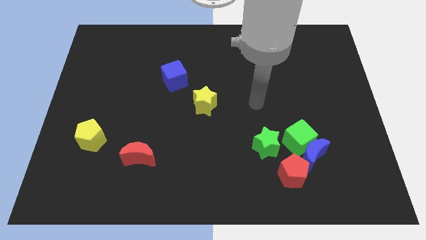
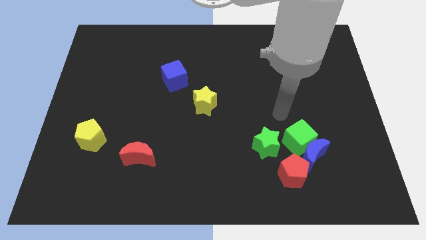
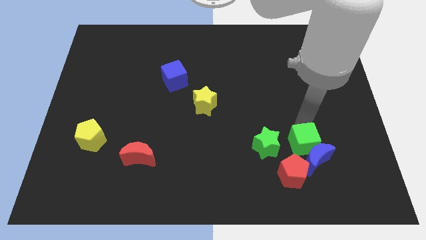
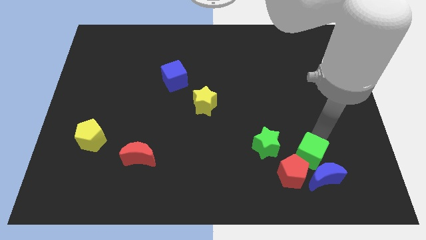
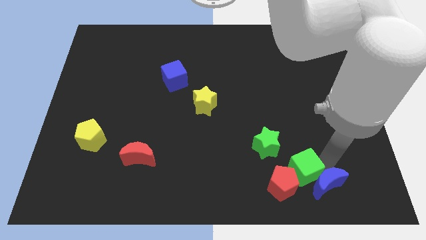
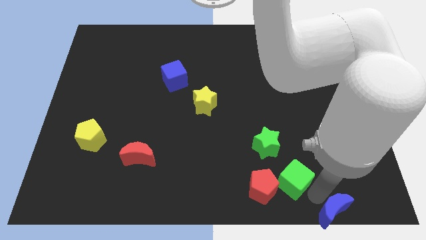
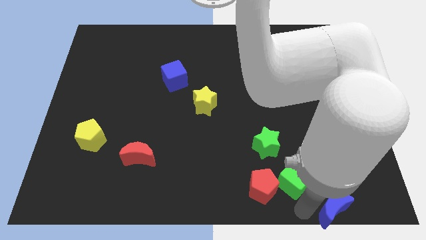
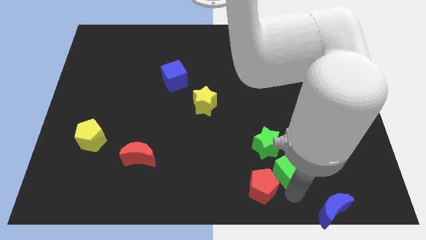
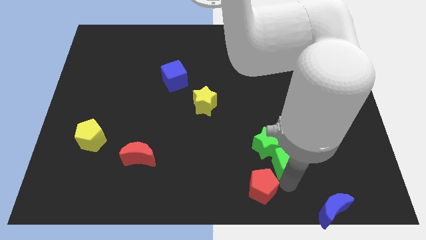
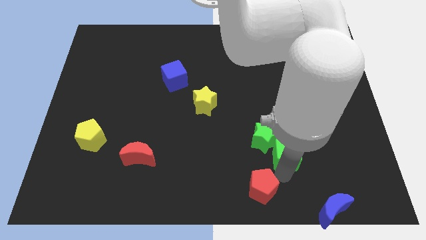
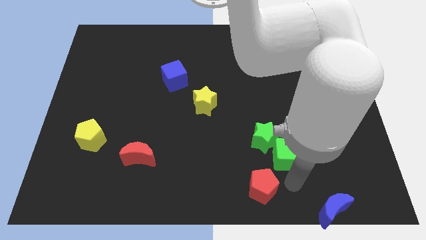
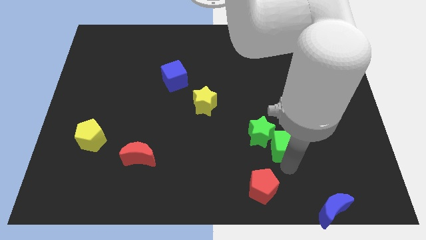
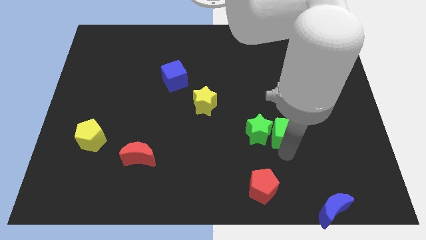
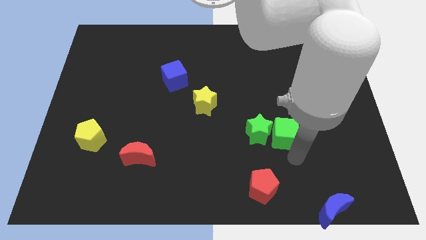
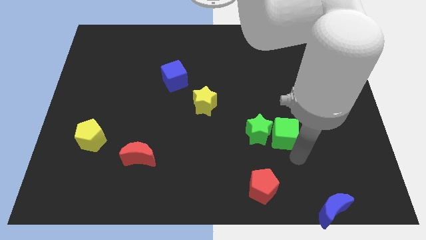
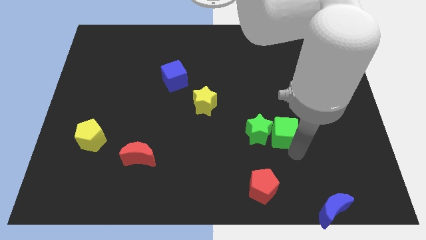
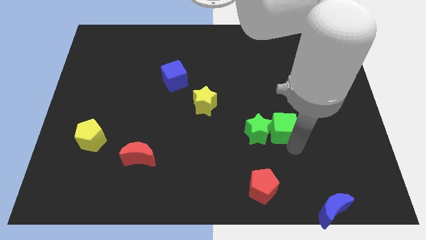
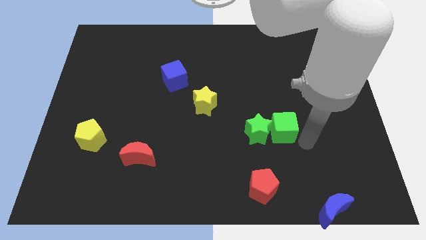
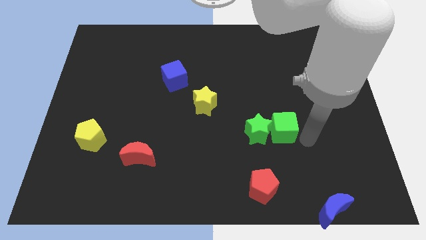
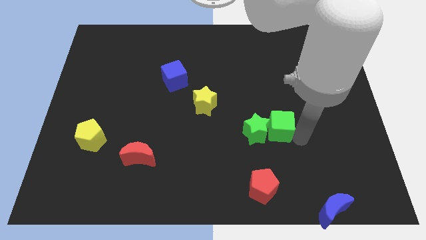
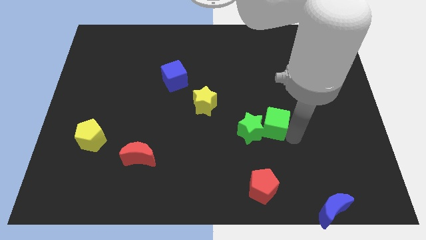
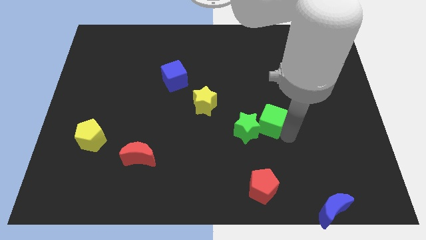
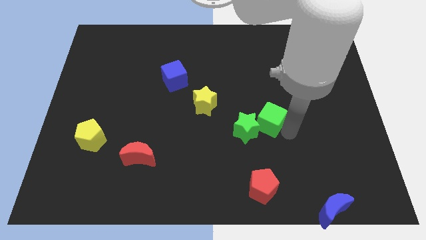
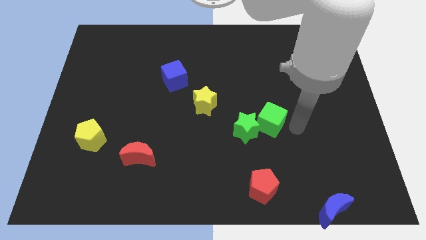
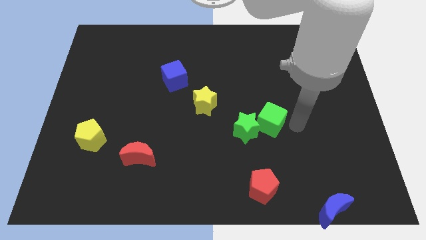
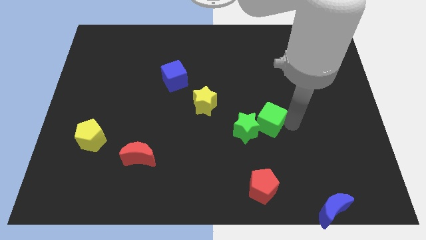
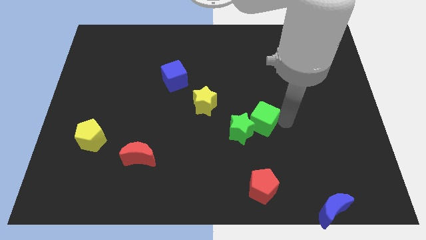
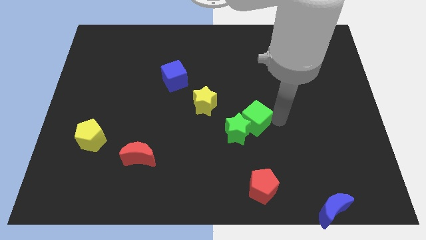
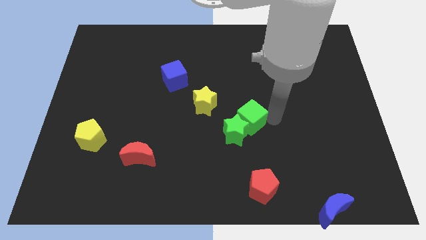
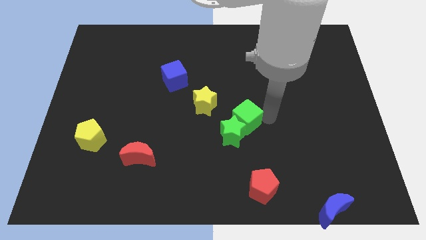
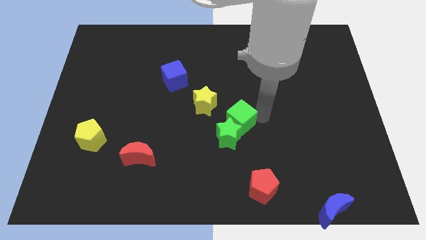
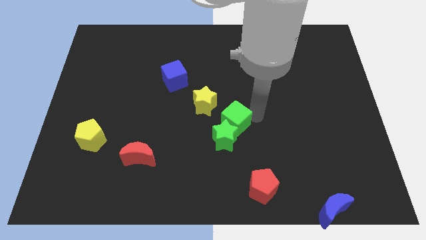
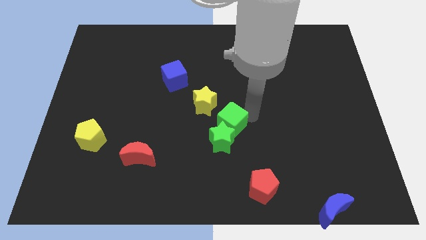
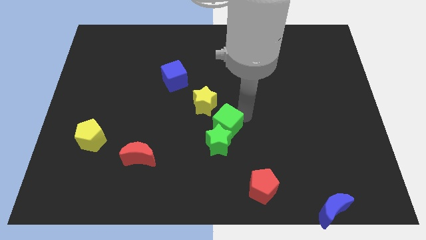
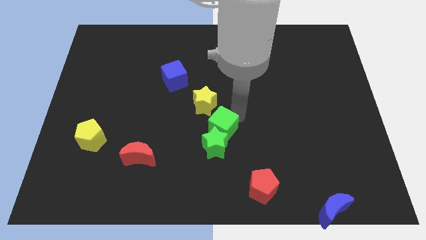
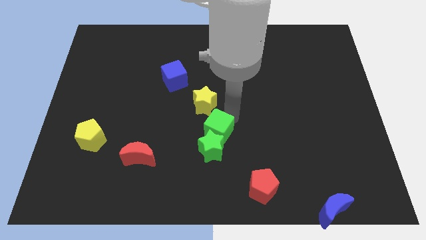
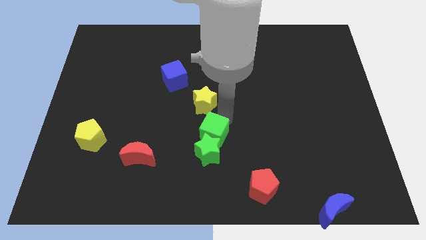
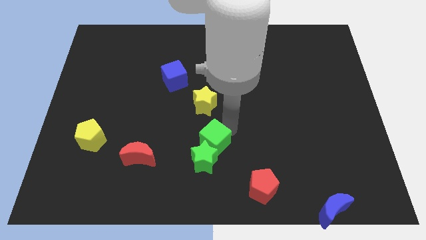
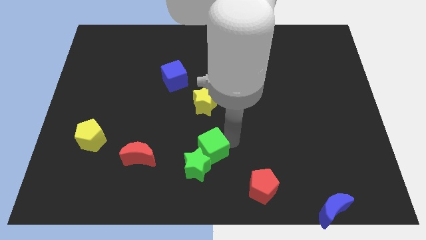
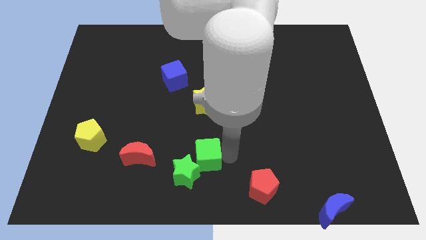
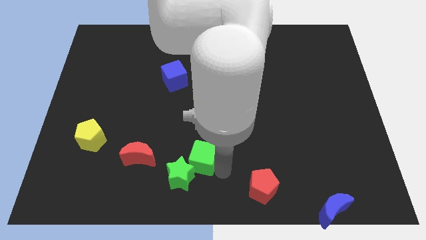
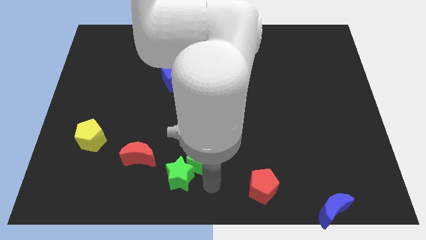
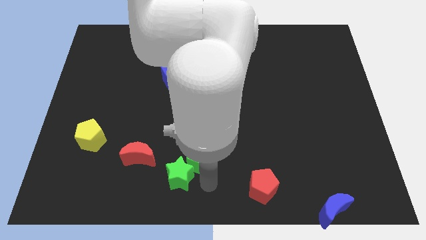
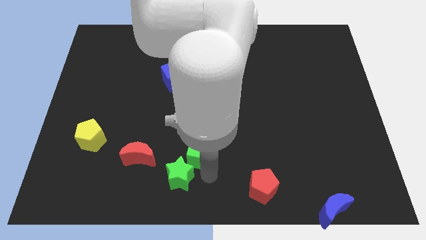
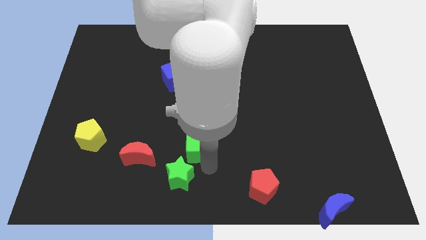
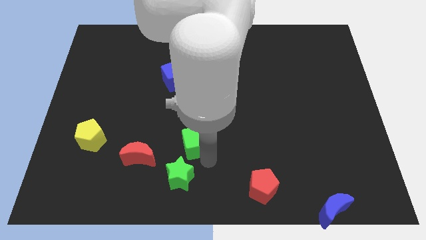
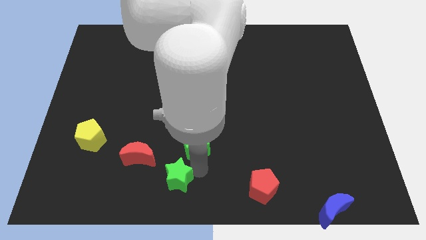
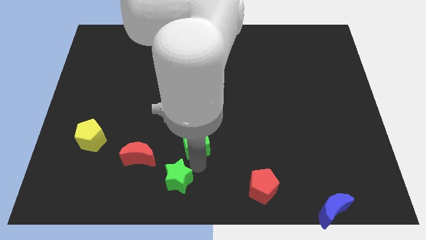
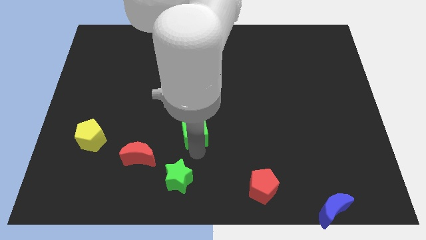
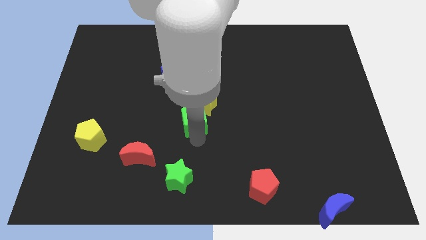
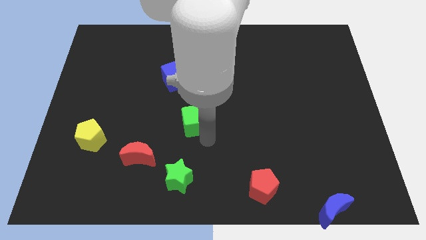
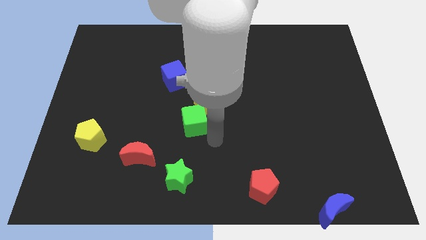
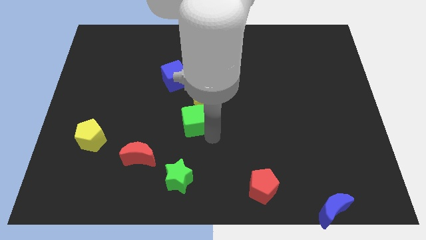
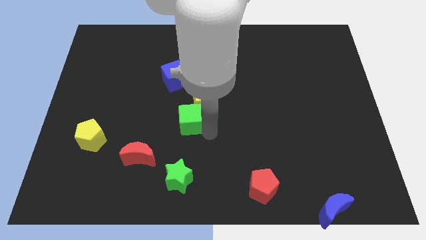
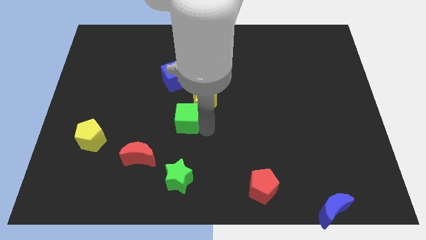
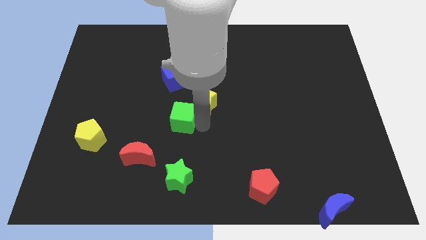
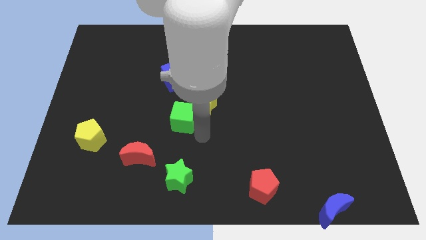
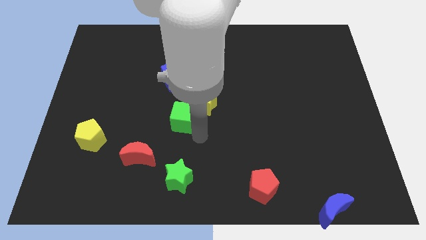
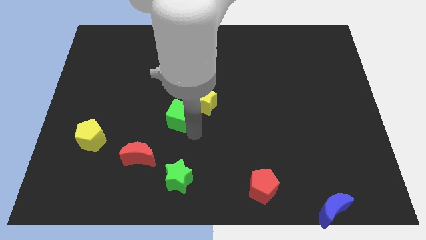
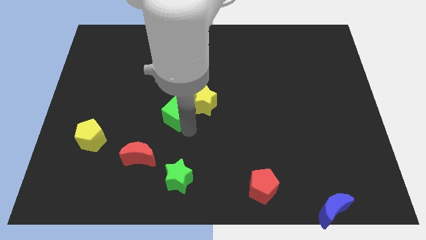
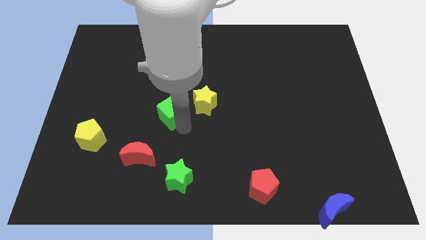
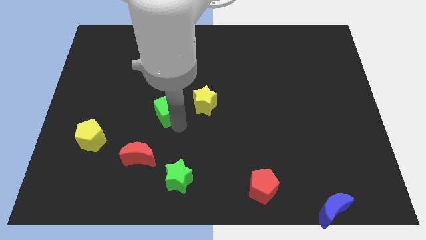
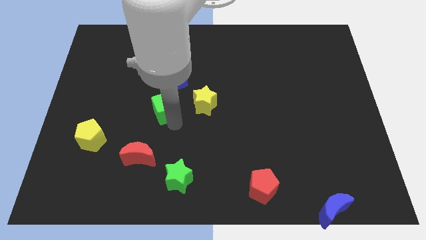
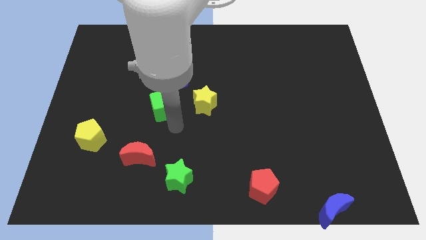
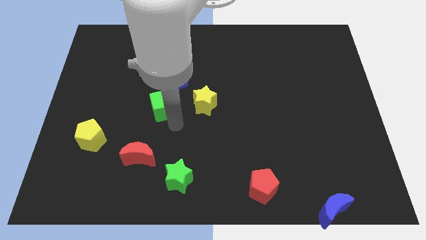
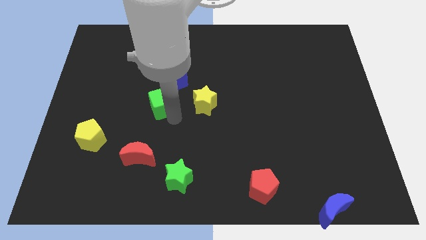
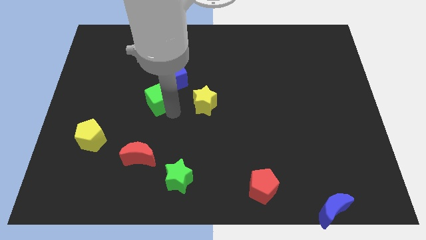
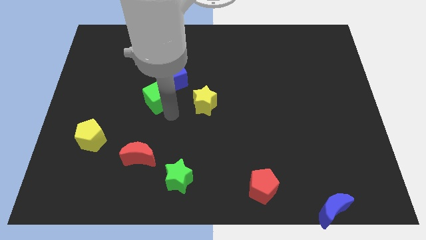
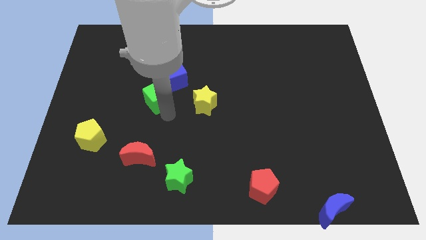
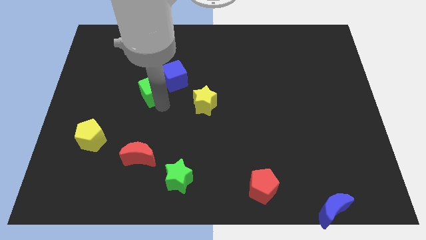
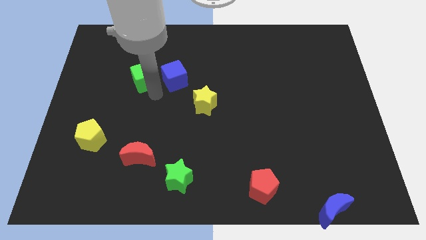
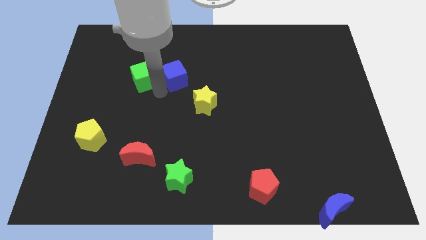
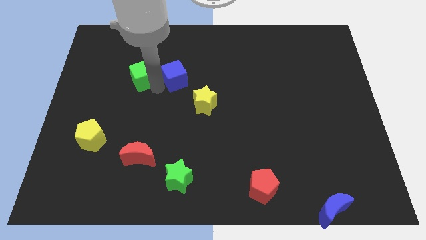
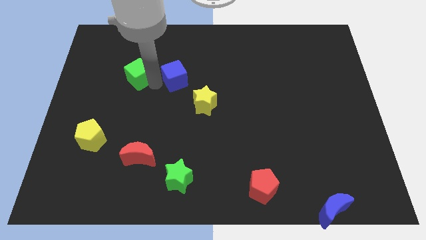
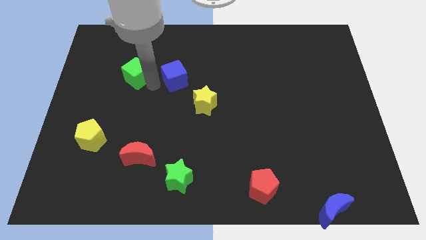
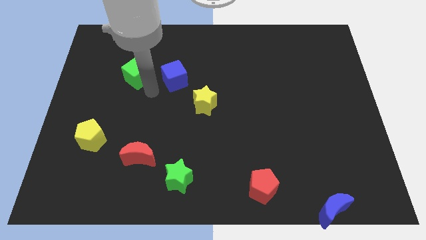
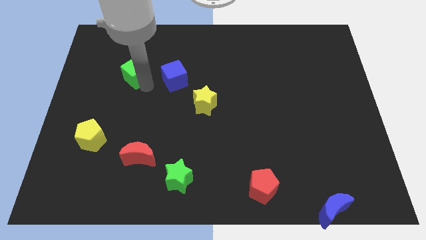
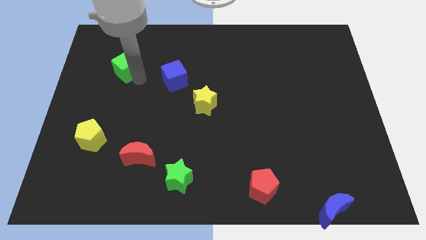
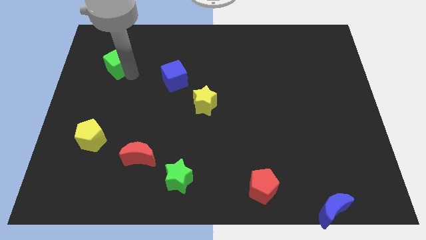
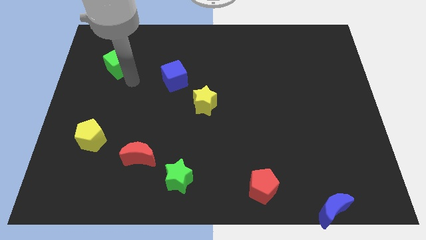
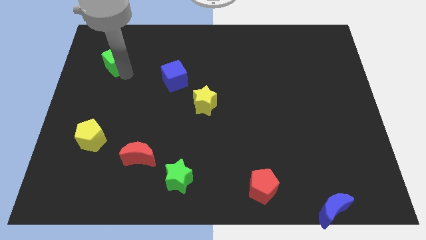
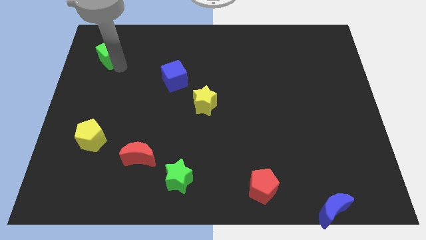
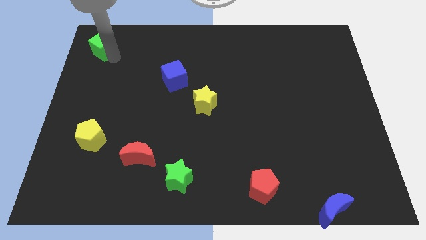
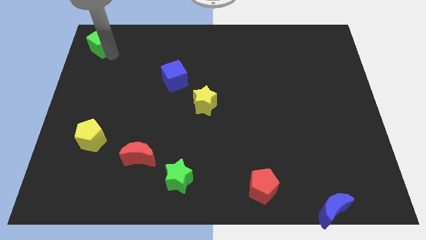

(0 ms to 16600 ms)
put the green cube to the upper left corner
